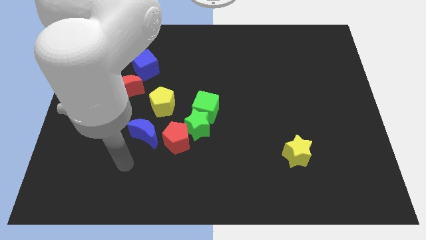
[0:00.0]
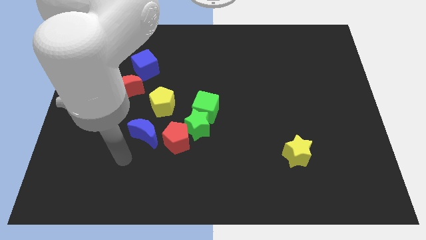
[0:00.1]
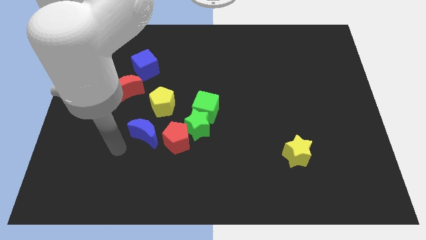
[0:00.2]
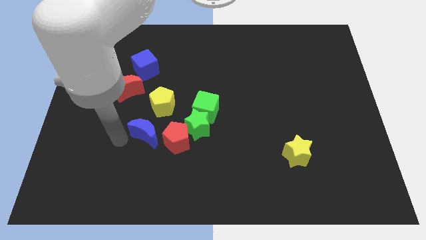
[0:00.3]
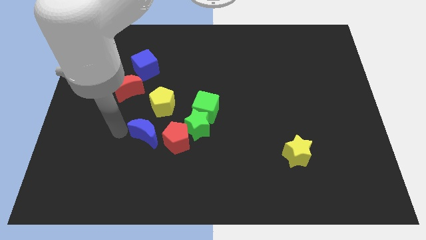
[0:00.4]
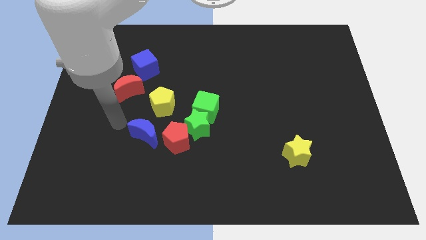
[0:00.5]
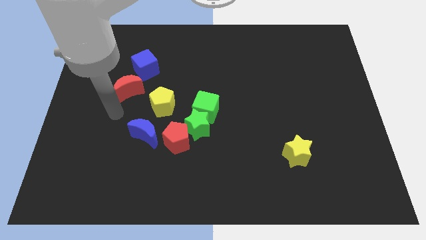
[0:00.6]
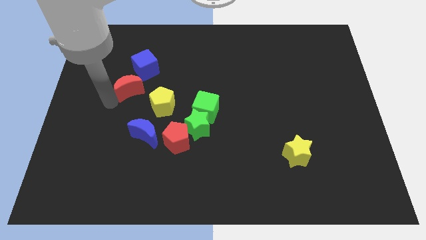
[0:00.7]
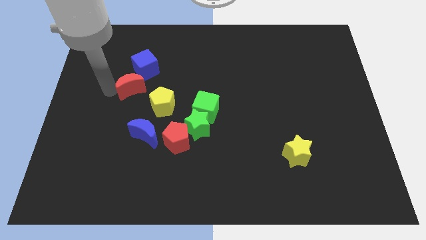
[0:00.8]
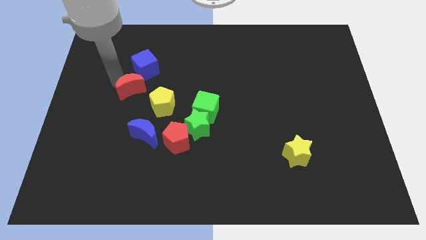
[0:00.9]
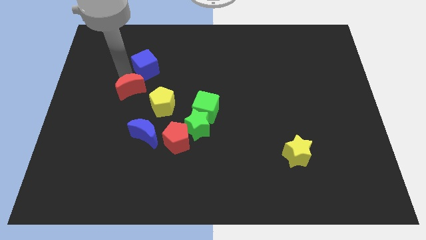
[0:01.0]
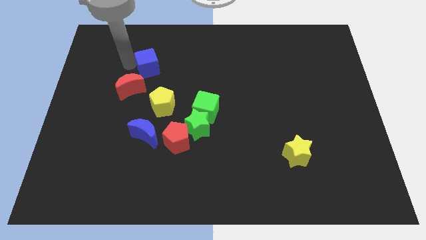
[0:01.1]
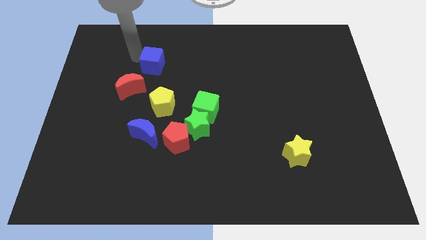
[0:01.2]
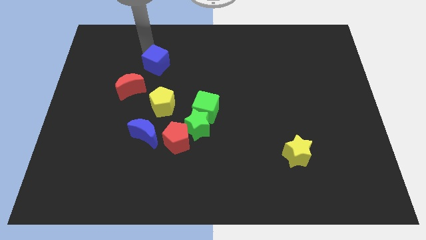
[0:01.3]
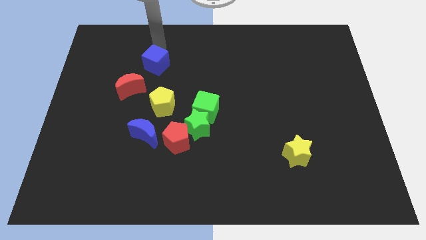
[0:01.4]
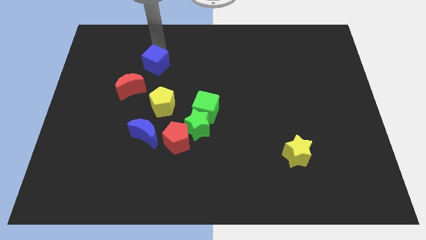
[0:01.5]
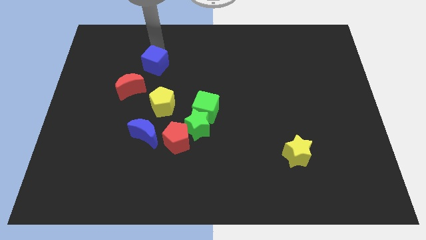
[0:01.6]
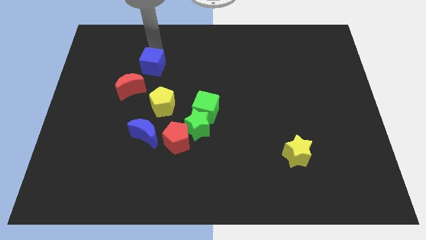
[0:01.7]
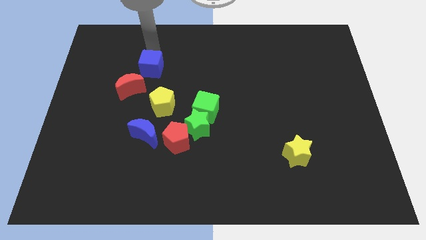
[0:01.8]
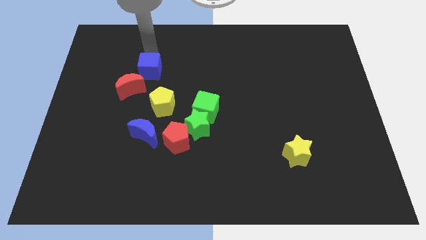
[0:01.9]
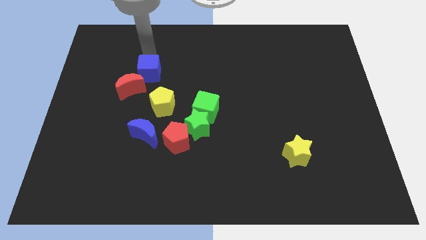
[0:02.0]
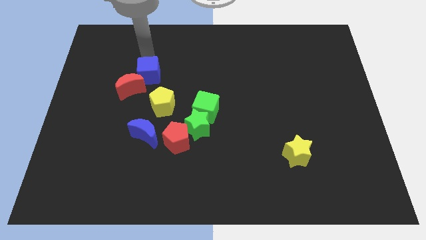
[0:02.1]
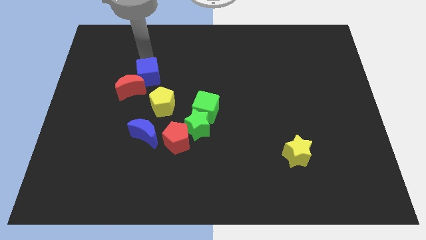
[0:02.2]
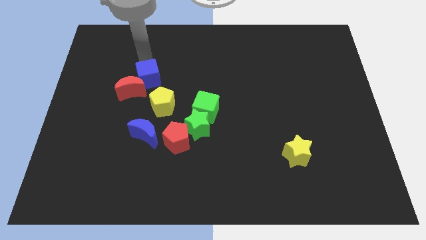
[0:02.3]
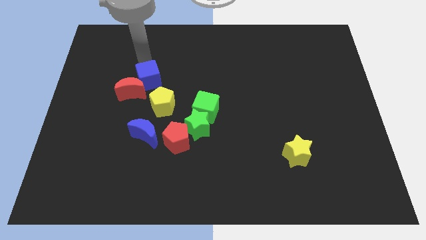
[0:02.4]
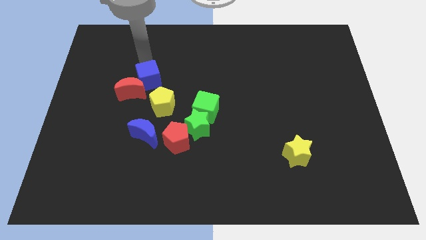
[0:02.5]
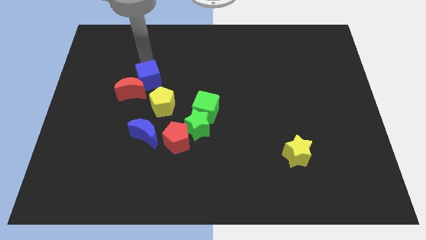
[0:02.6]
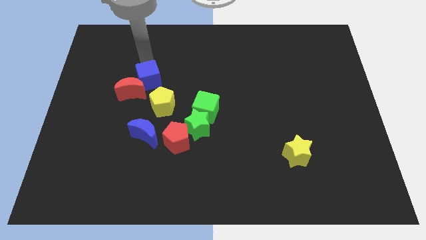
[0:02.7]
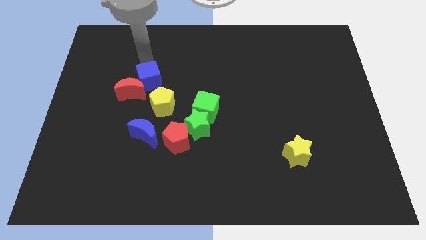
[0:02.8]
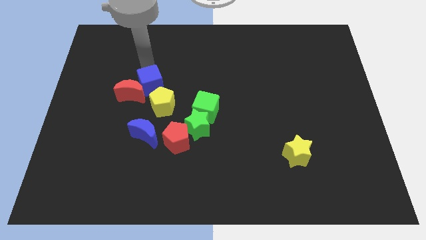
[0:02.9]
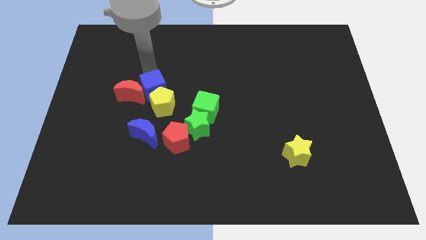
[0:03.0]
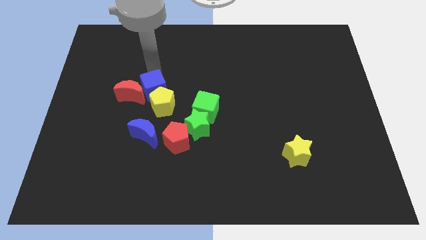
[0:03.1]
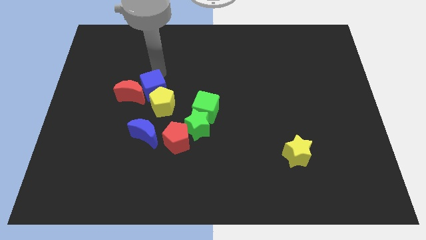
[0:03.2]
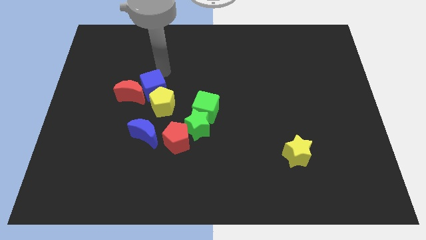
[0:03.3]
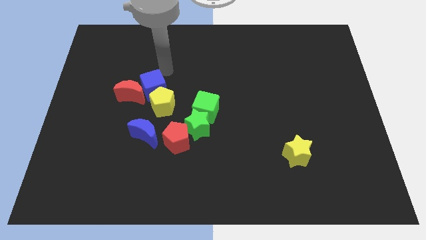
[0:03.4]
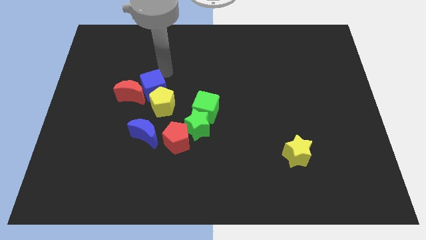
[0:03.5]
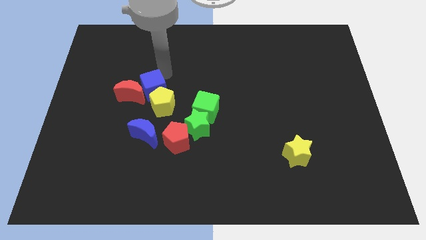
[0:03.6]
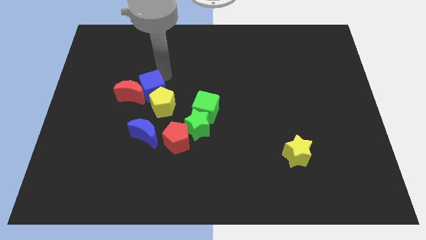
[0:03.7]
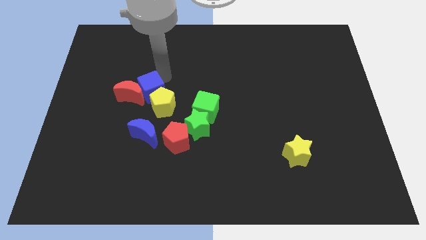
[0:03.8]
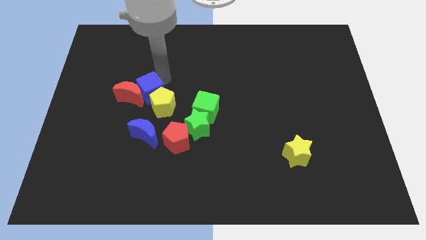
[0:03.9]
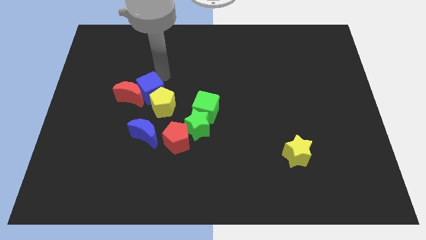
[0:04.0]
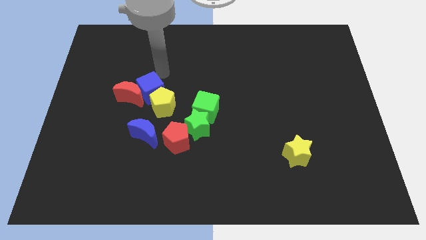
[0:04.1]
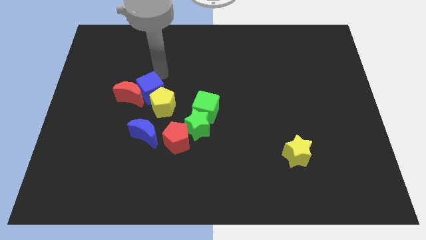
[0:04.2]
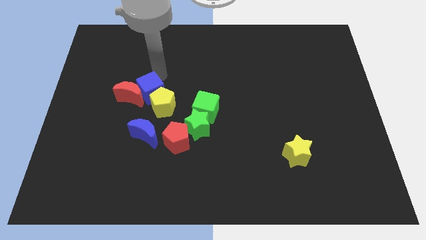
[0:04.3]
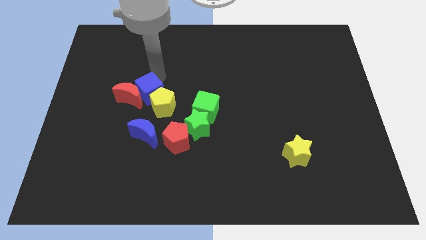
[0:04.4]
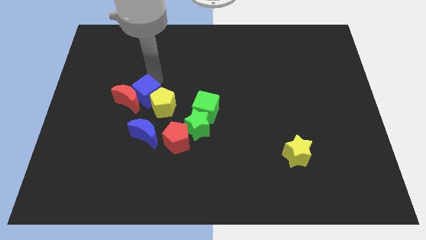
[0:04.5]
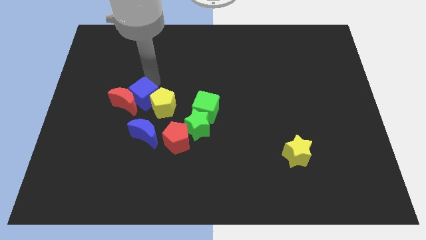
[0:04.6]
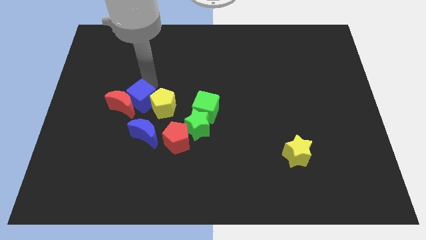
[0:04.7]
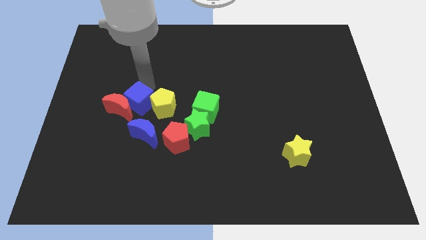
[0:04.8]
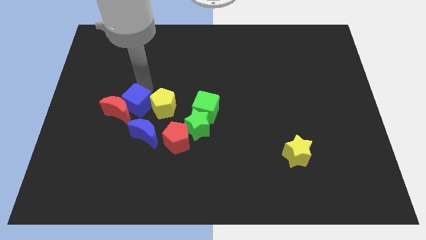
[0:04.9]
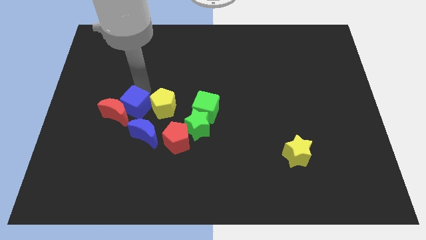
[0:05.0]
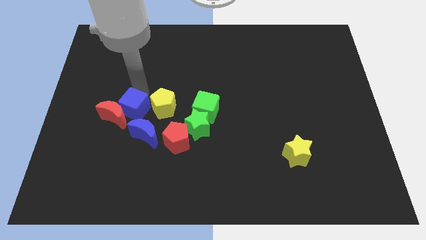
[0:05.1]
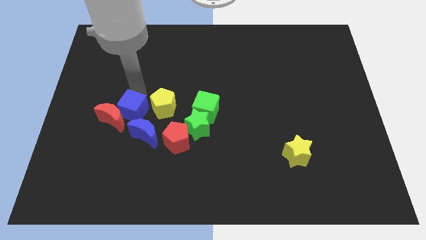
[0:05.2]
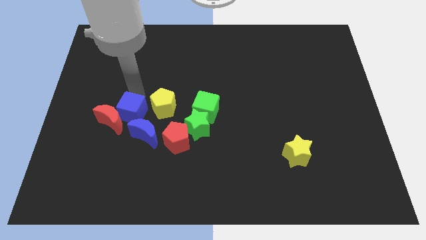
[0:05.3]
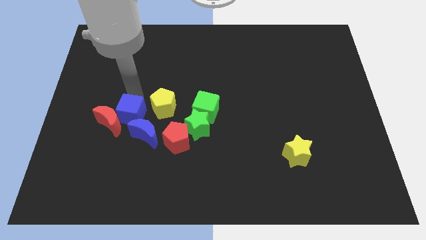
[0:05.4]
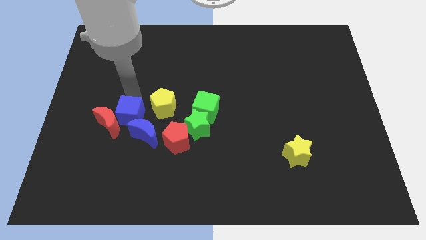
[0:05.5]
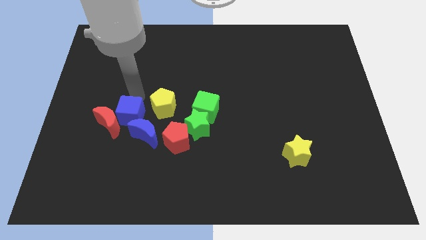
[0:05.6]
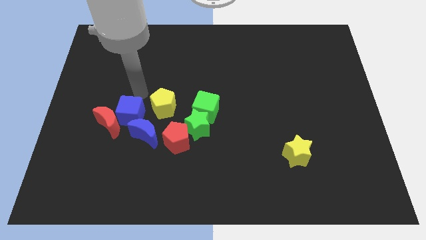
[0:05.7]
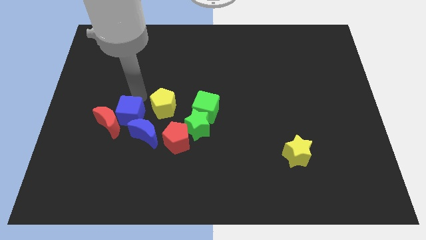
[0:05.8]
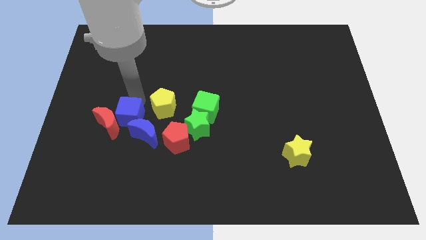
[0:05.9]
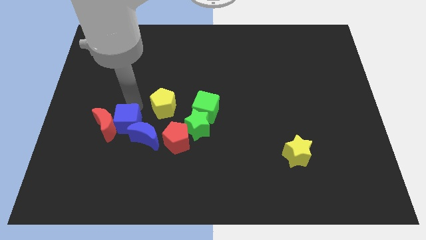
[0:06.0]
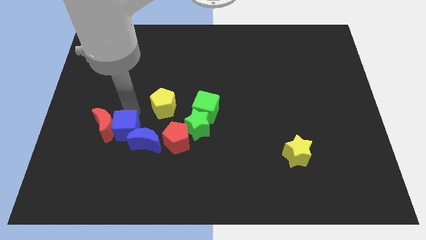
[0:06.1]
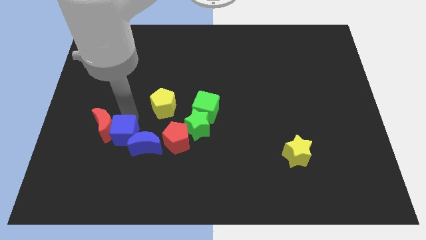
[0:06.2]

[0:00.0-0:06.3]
push the blue cube down

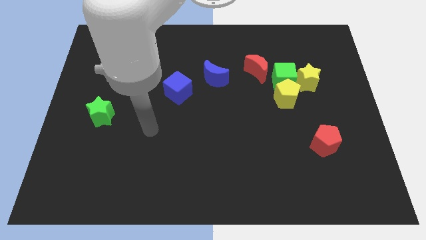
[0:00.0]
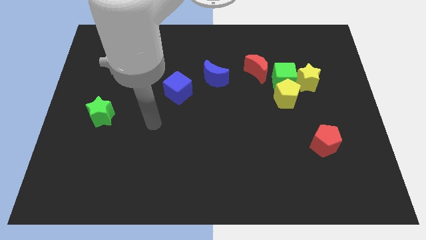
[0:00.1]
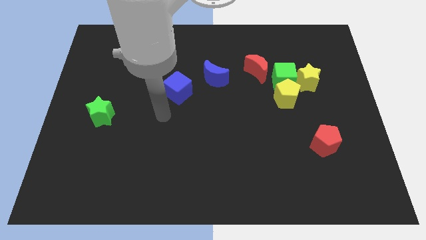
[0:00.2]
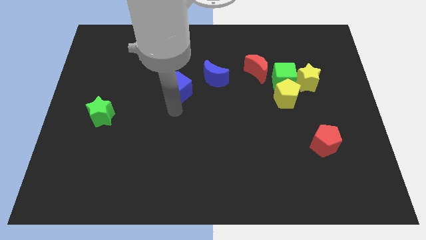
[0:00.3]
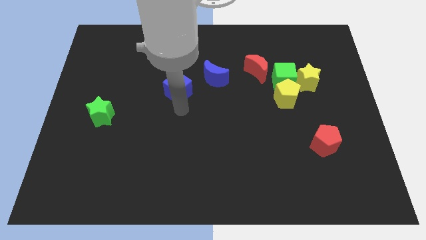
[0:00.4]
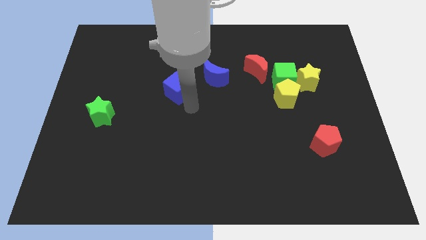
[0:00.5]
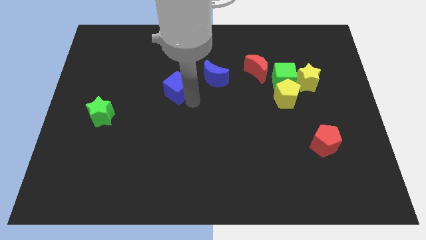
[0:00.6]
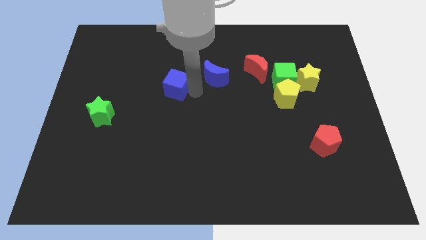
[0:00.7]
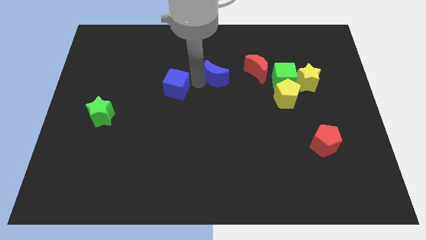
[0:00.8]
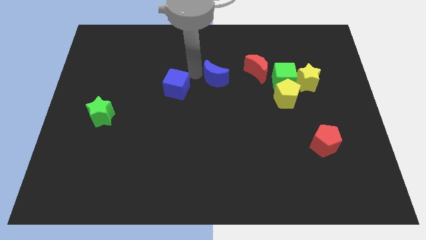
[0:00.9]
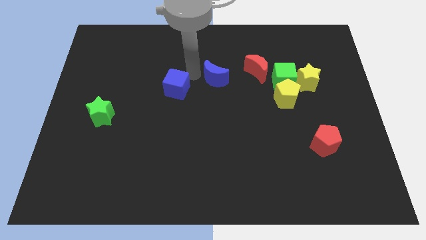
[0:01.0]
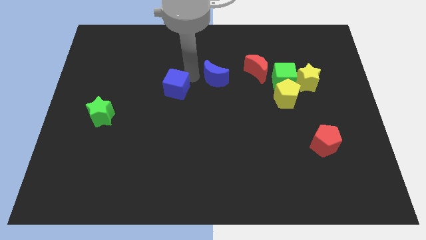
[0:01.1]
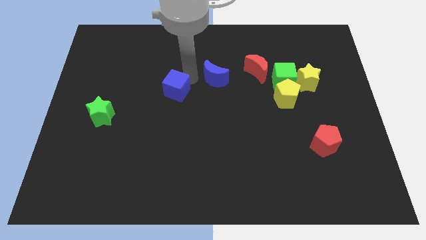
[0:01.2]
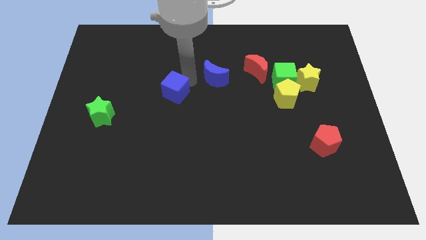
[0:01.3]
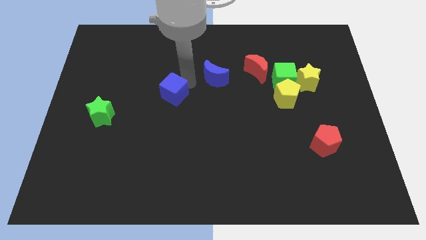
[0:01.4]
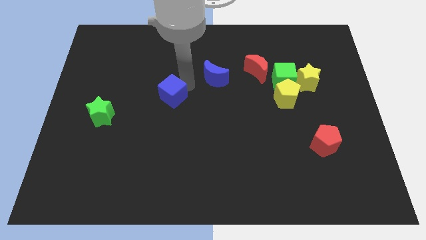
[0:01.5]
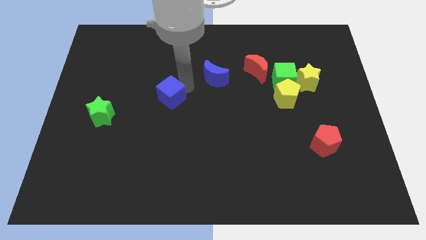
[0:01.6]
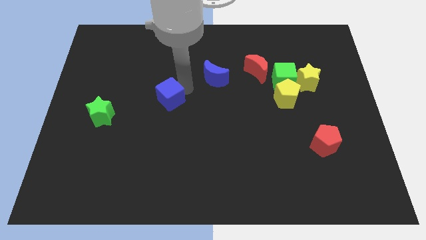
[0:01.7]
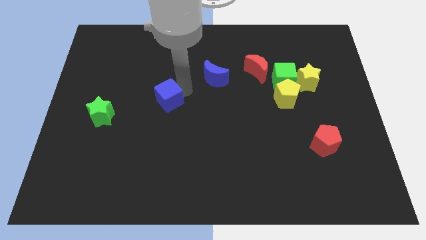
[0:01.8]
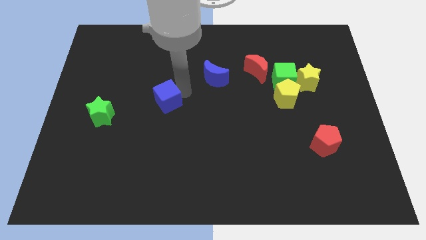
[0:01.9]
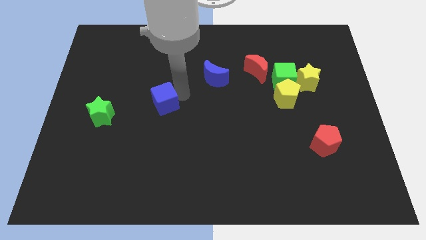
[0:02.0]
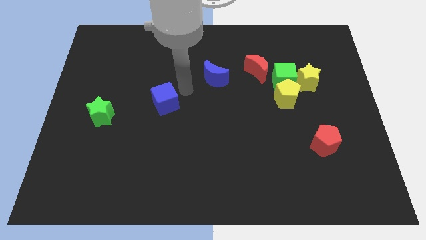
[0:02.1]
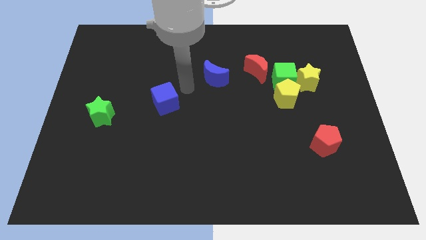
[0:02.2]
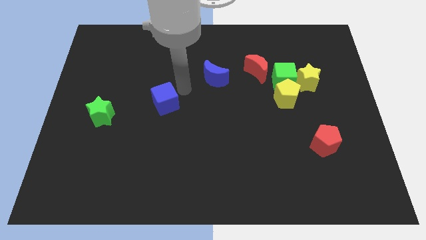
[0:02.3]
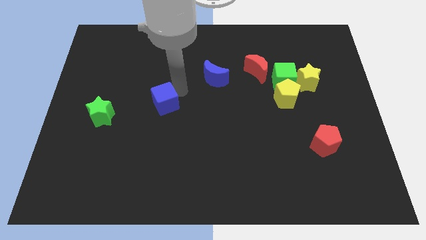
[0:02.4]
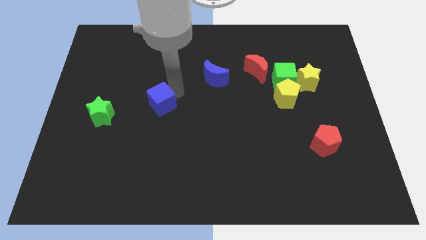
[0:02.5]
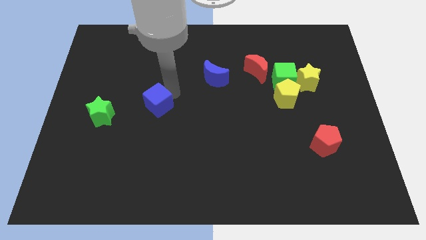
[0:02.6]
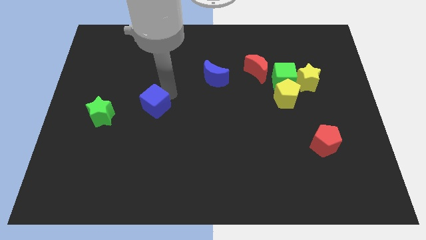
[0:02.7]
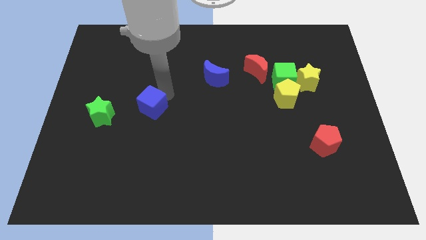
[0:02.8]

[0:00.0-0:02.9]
slightly move the blue cube down and left
